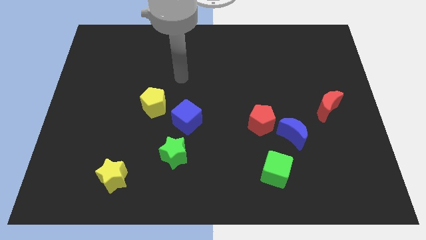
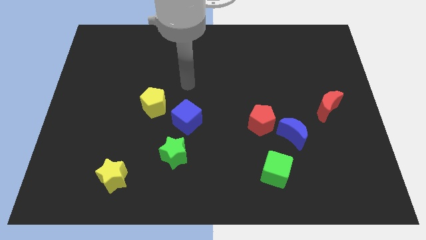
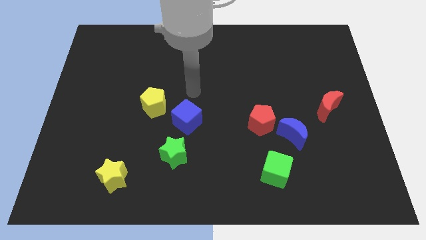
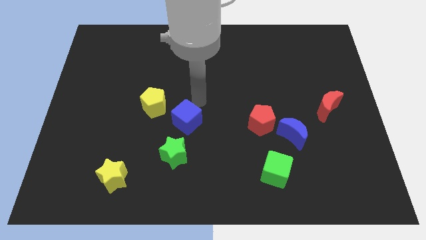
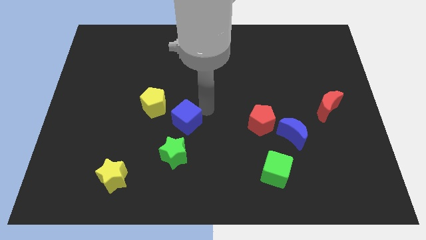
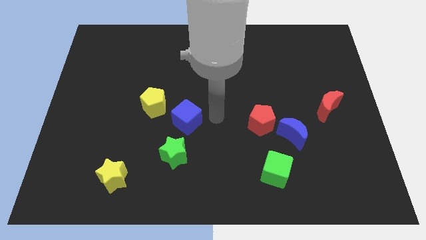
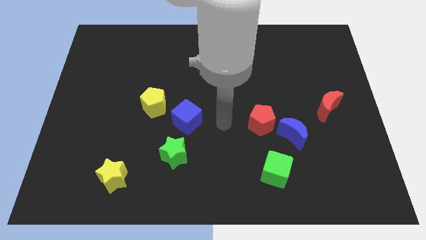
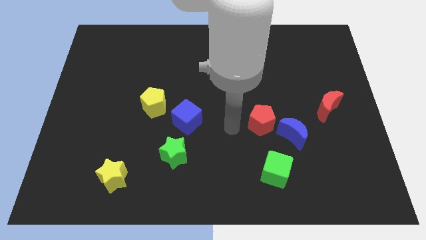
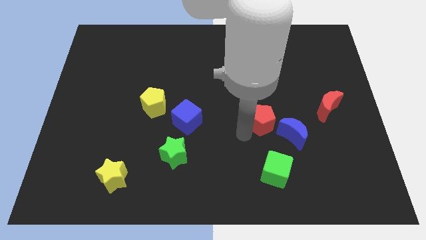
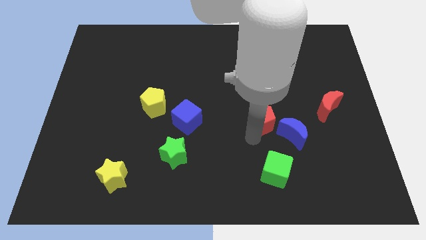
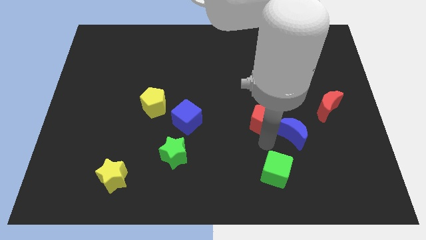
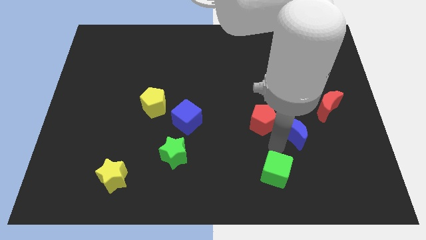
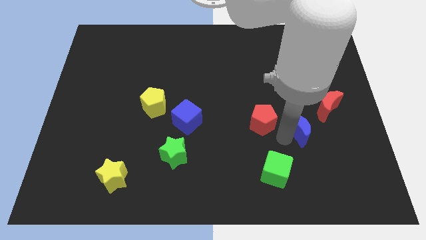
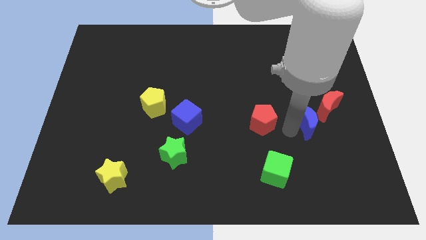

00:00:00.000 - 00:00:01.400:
separate the red pentagon from the blue moon

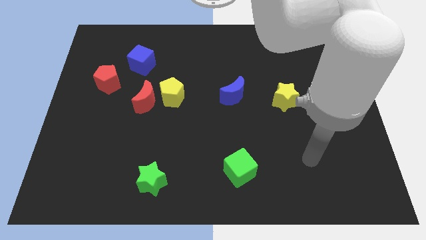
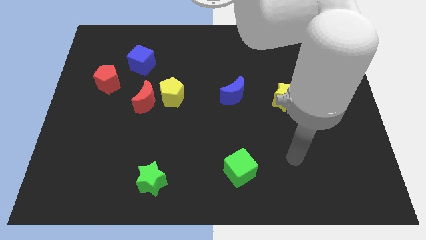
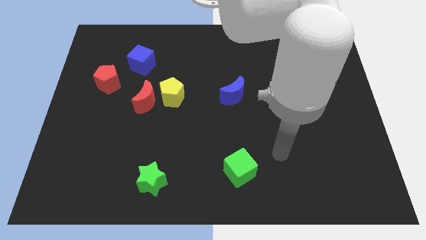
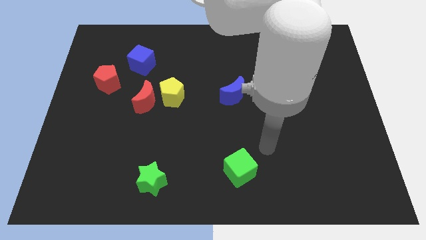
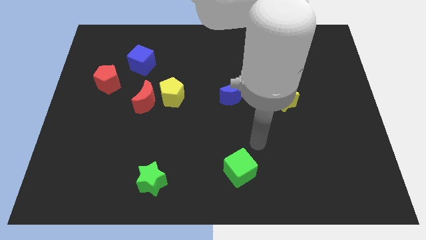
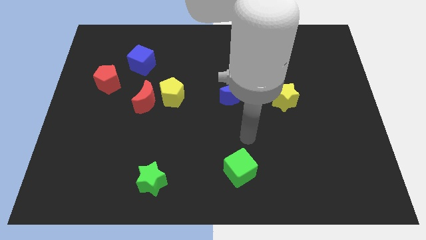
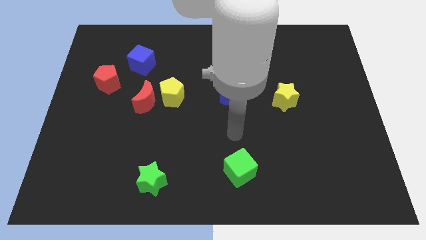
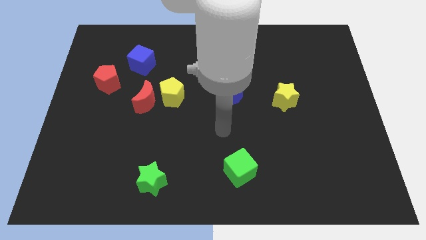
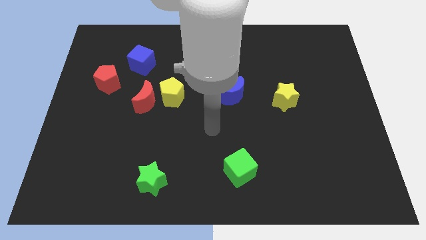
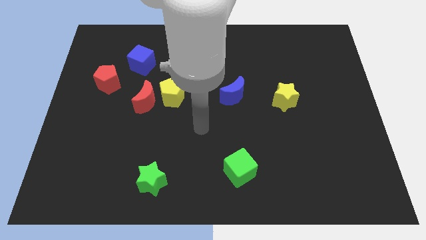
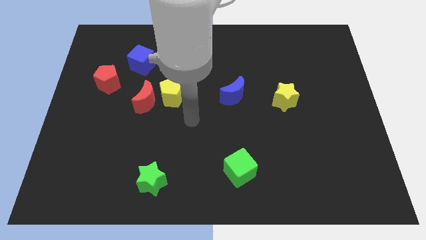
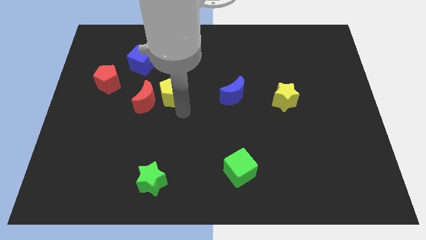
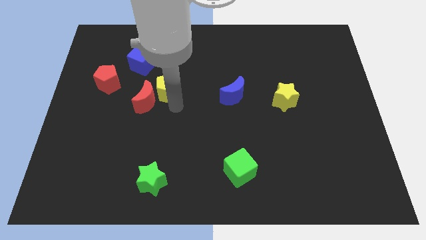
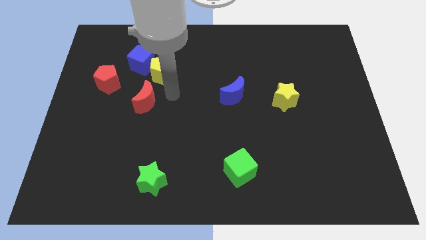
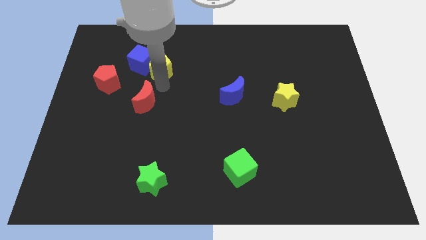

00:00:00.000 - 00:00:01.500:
move the red moon away from the yellow pentagon

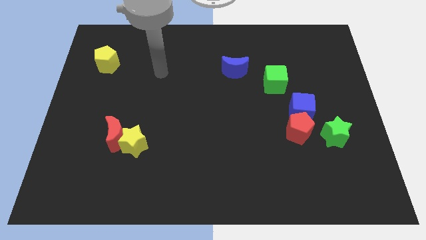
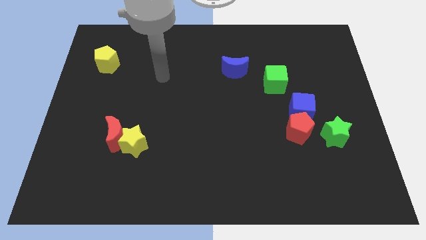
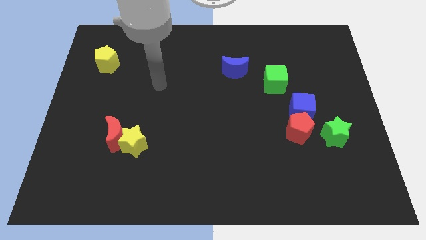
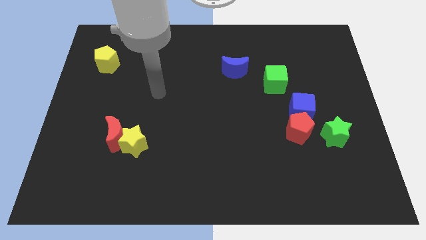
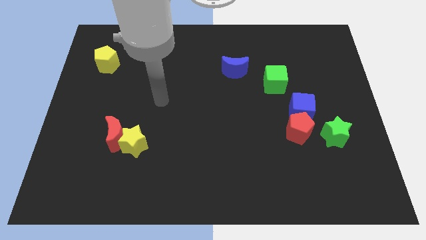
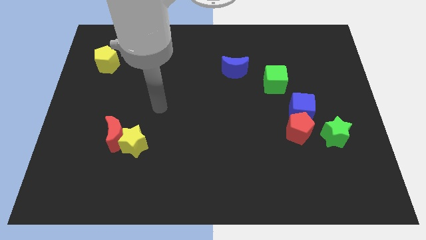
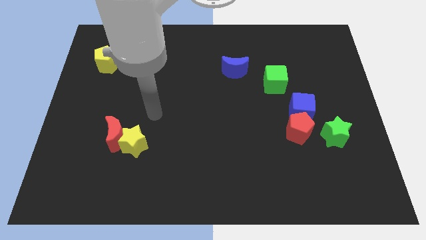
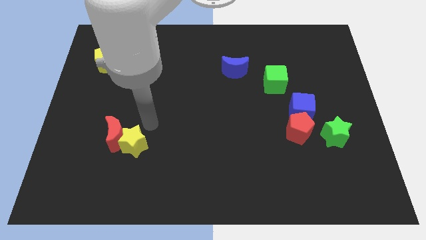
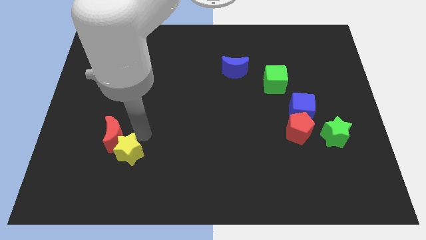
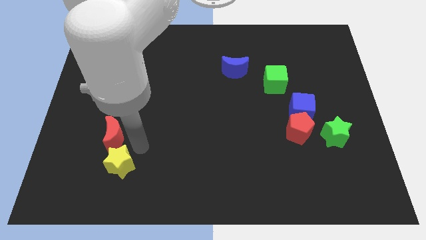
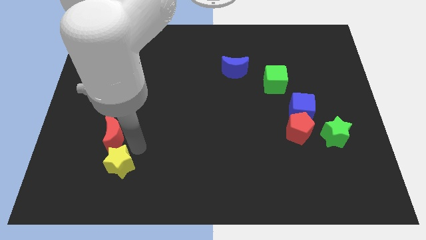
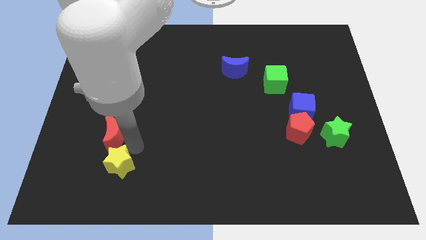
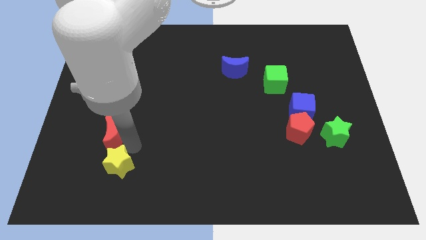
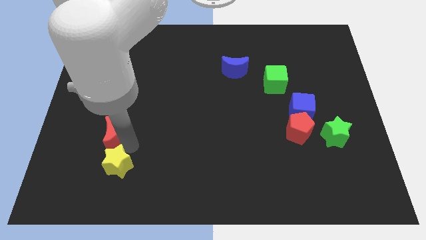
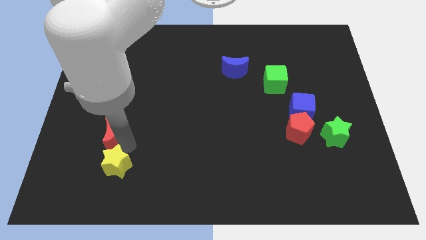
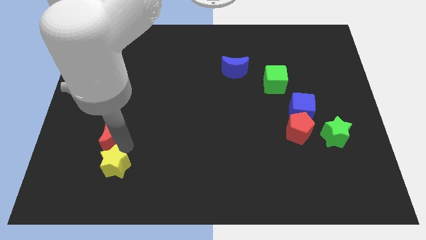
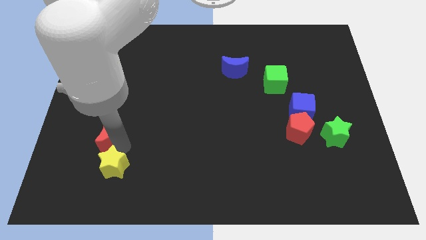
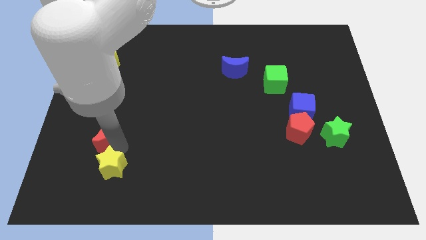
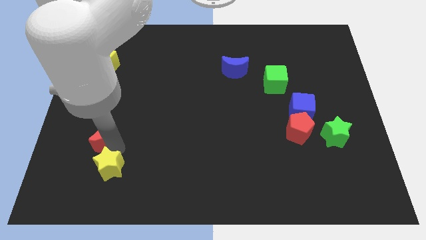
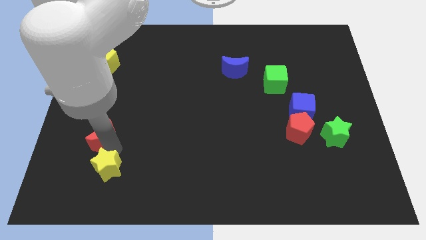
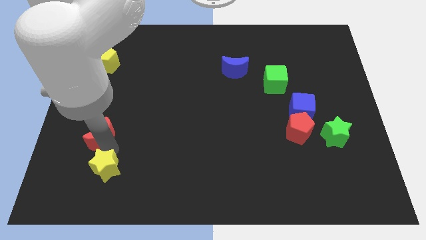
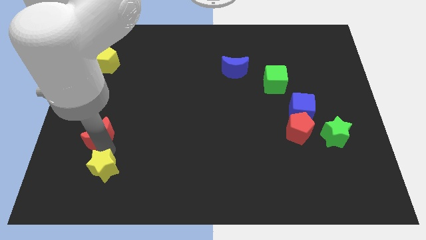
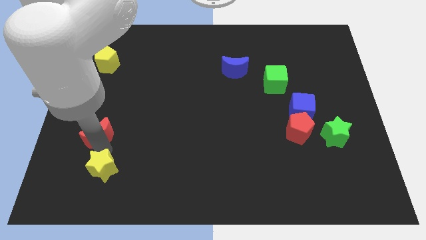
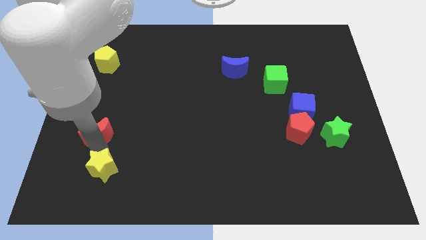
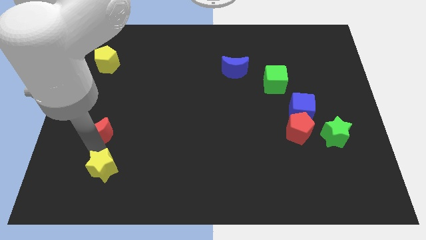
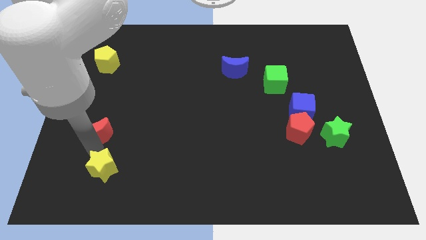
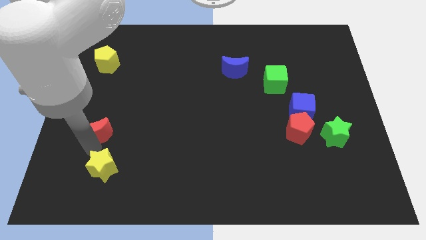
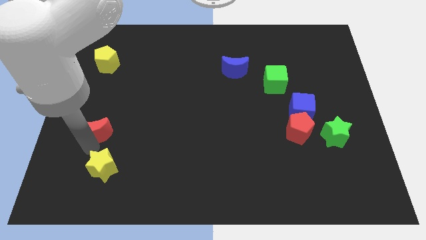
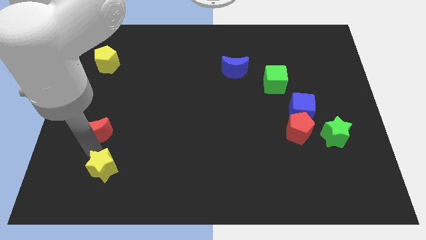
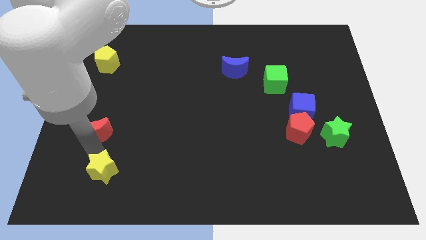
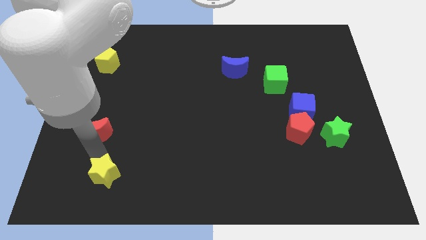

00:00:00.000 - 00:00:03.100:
move the red moon away from the yellow star

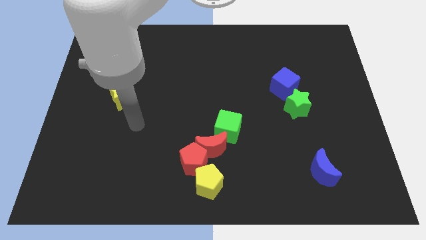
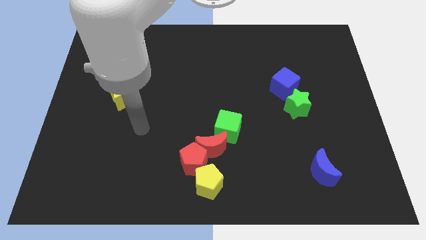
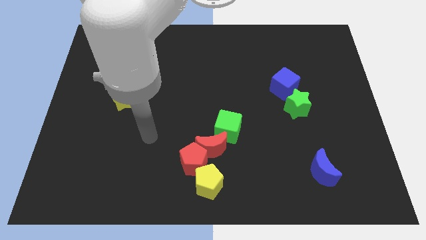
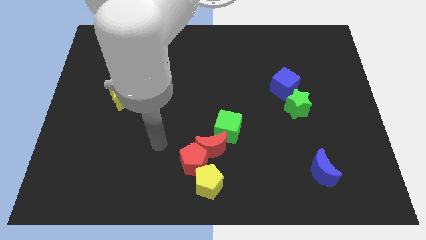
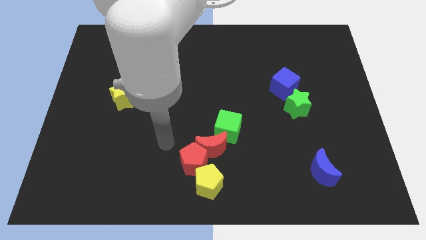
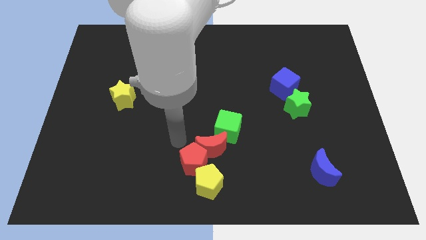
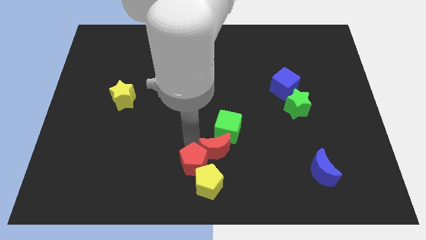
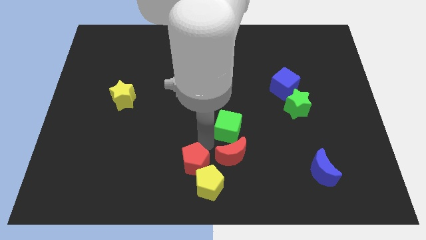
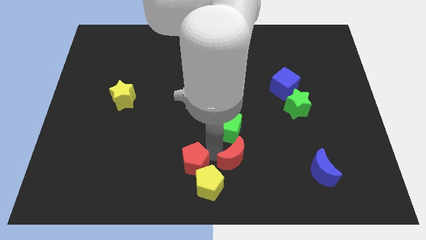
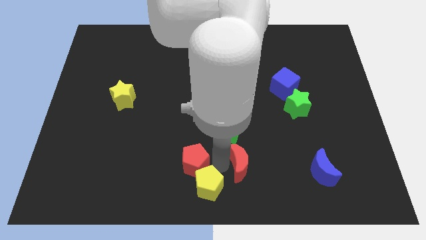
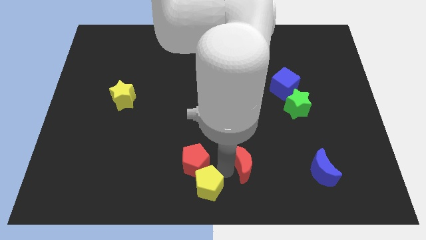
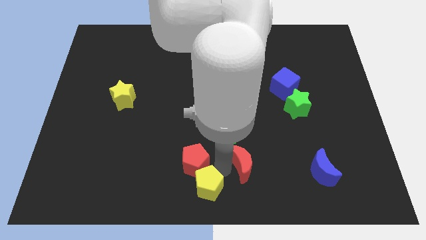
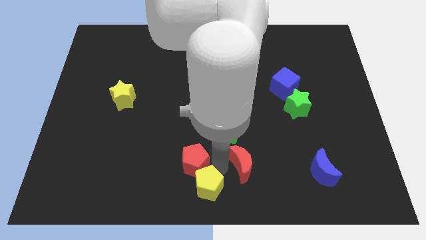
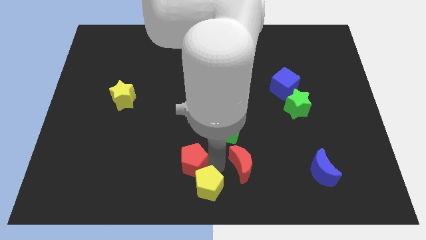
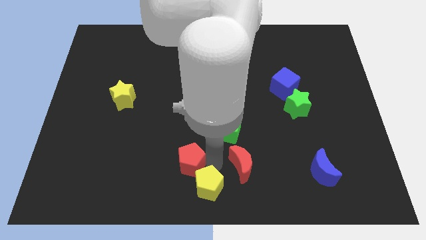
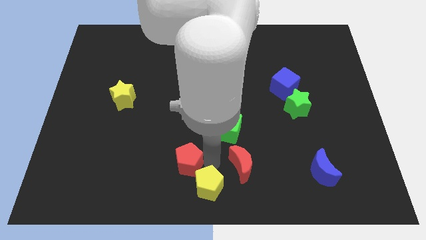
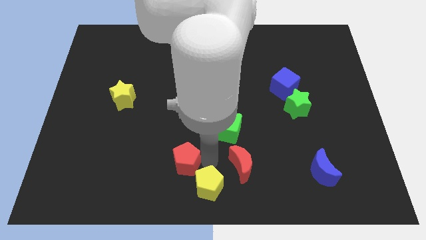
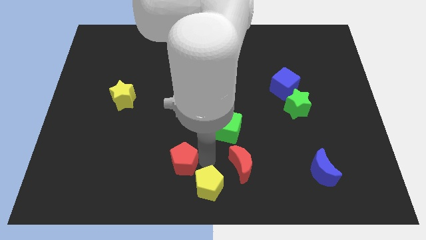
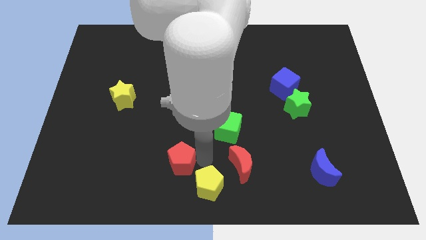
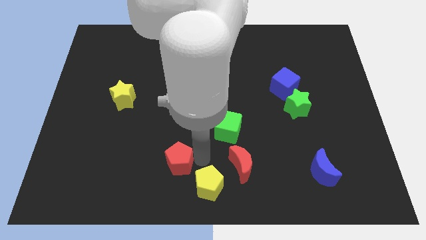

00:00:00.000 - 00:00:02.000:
separate the red pentagon from the red moon and yellow pentagon

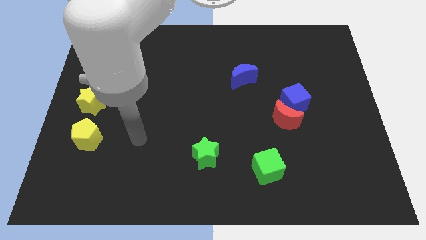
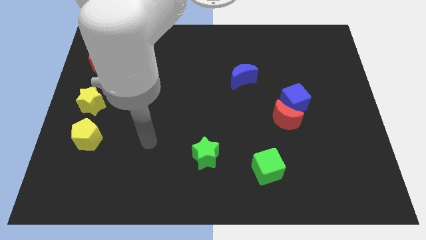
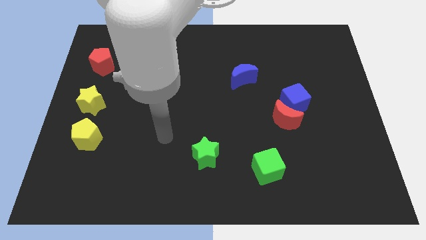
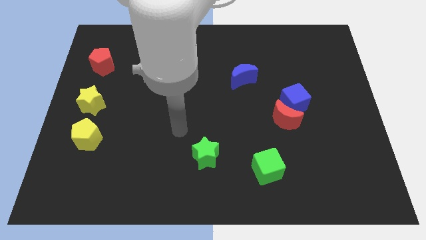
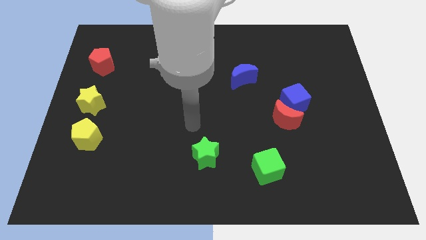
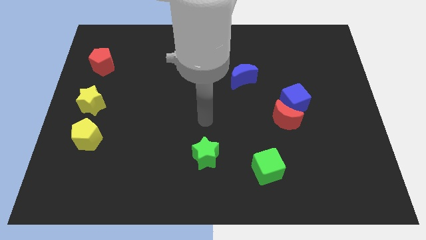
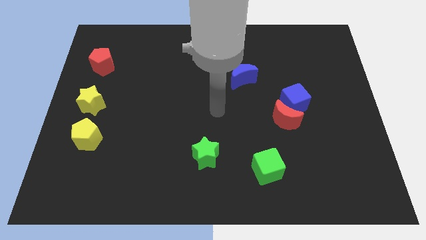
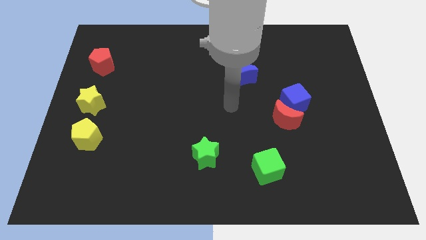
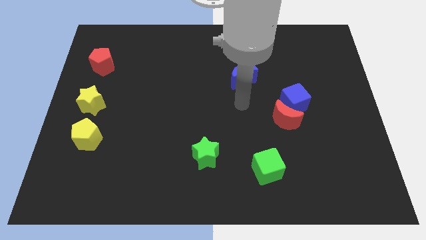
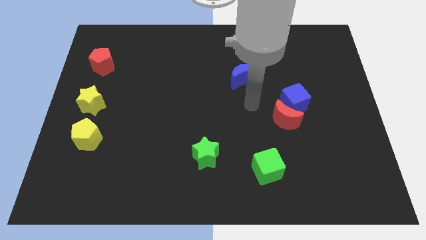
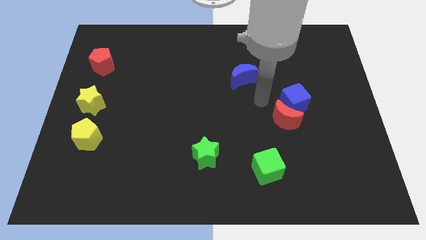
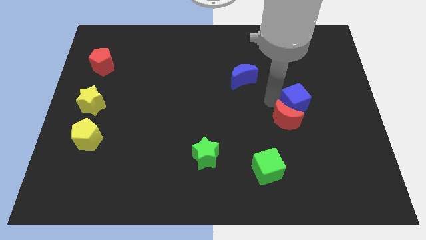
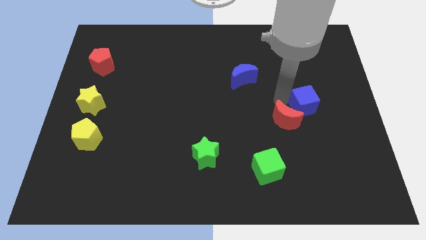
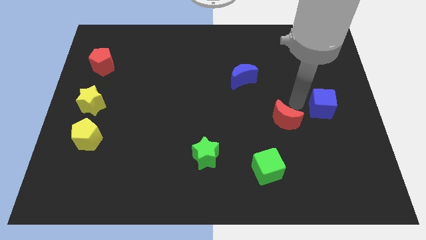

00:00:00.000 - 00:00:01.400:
separate the red moon from the blue cube
